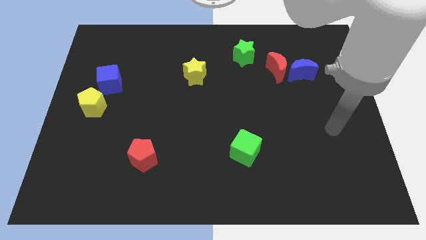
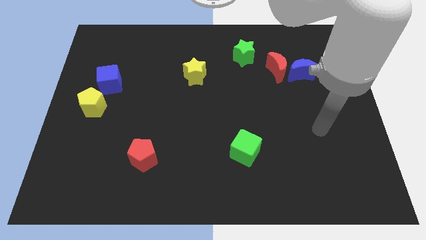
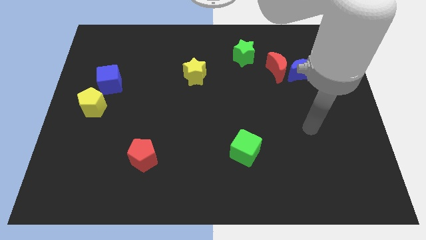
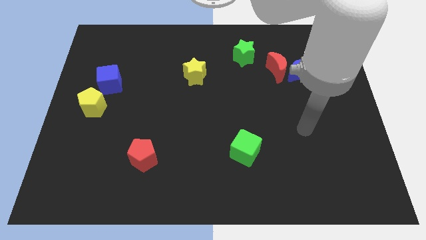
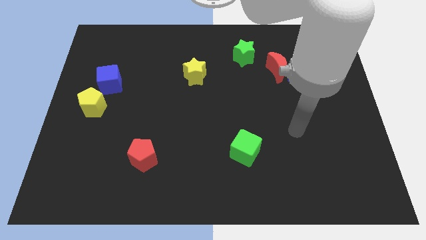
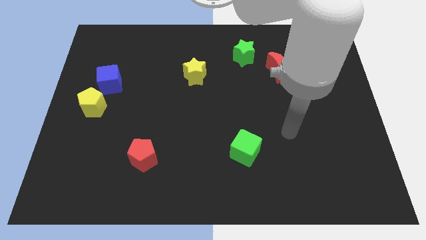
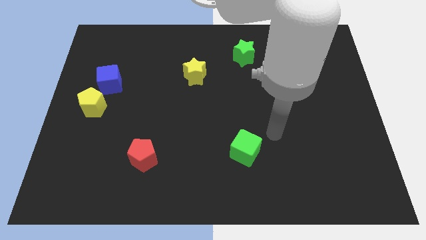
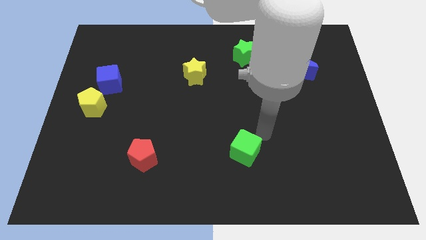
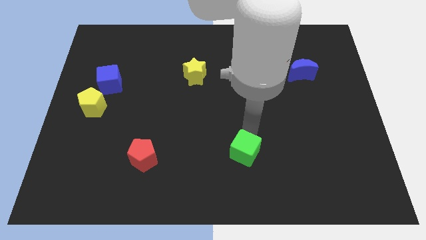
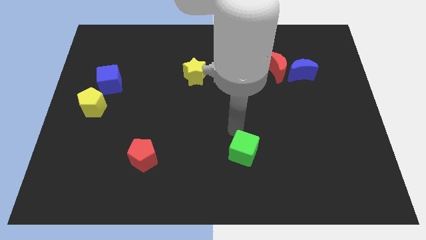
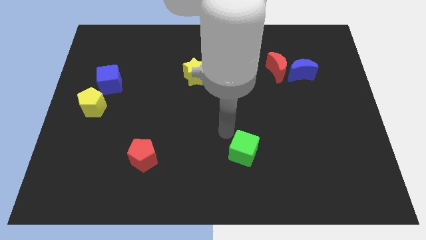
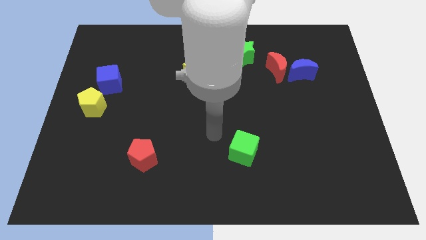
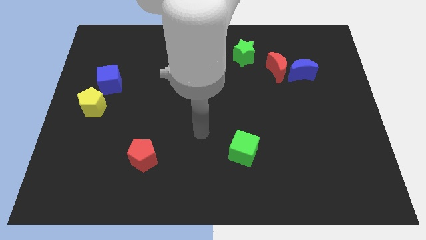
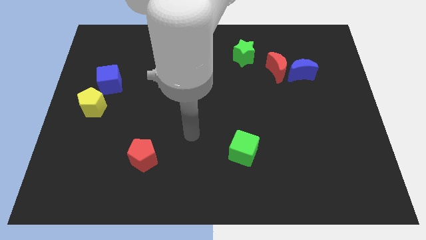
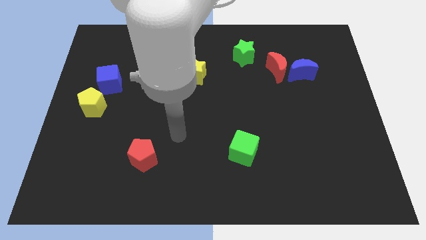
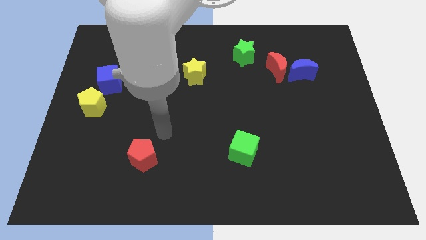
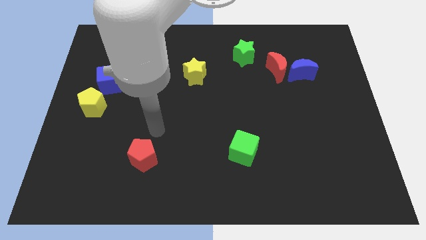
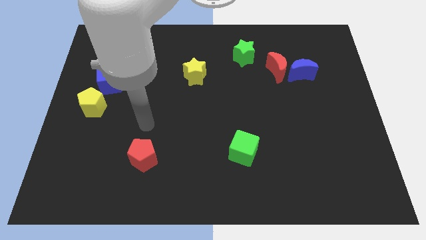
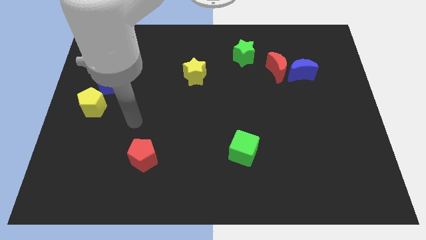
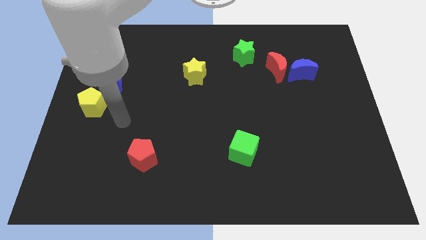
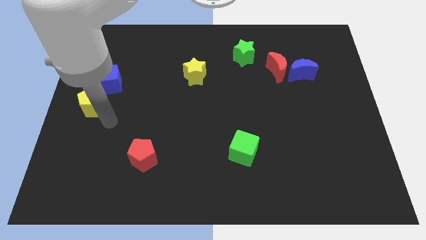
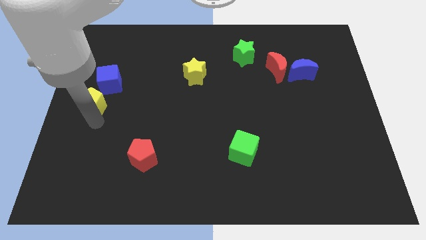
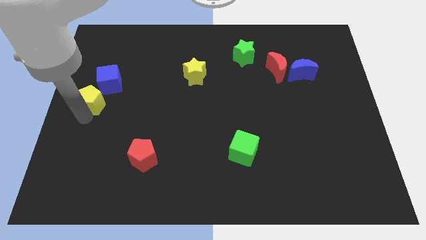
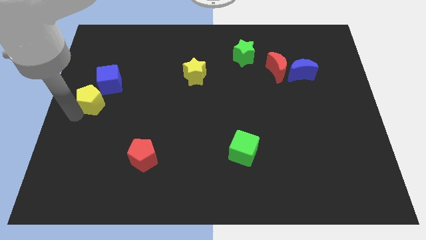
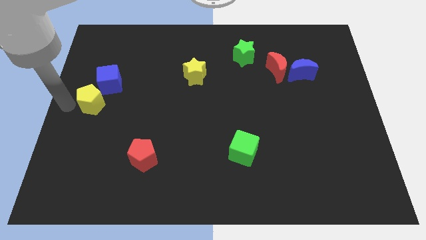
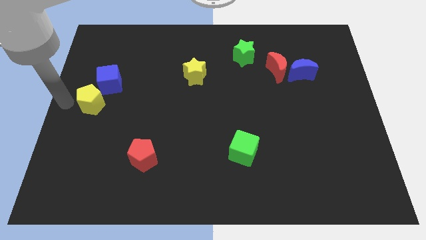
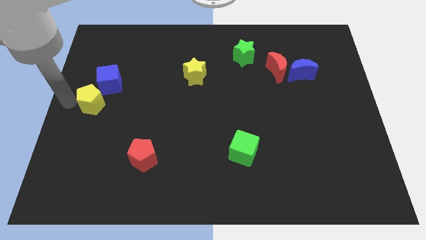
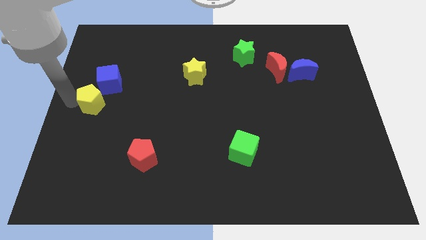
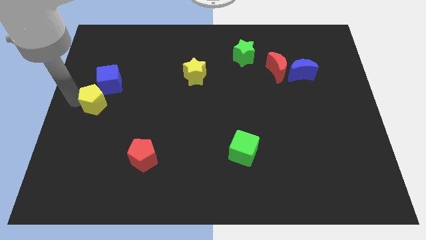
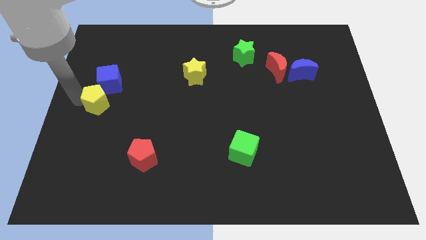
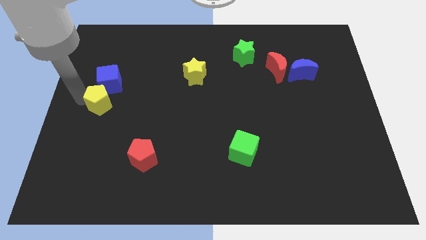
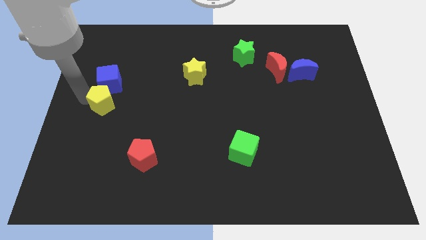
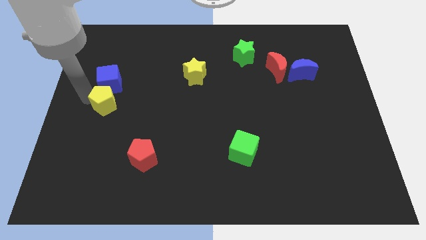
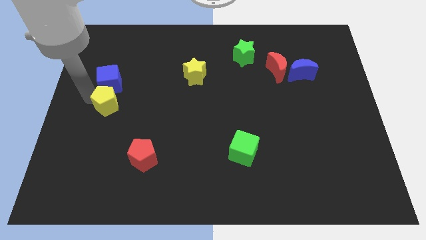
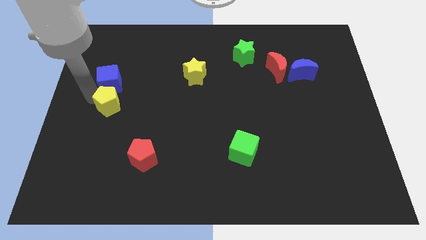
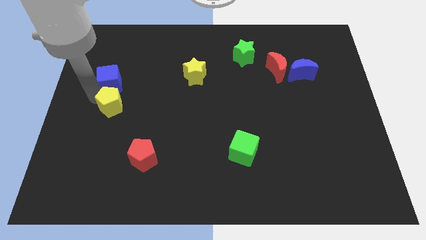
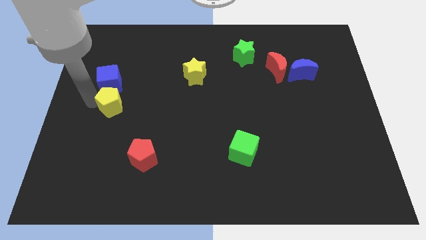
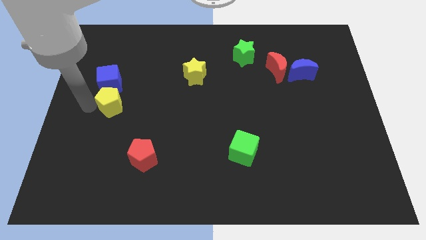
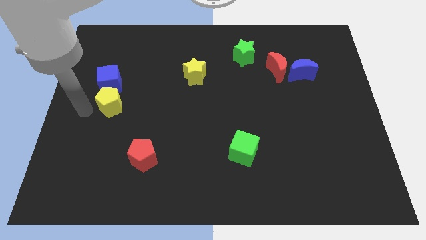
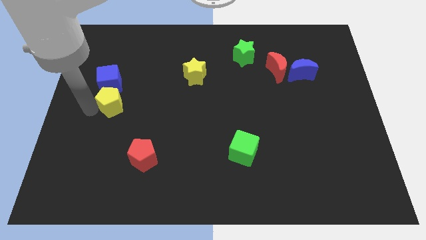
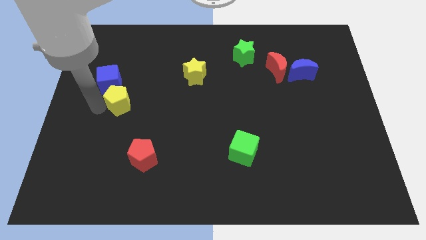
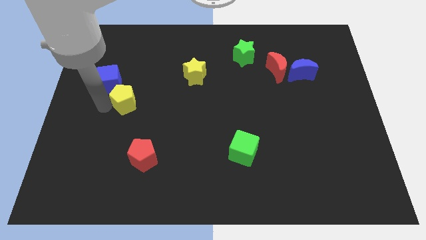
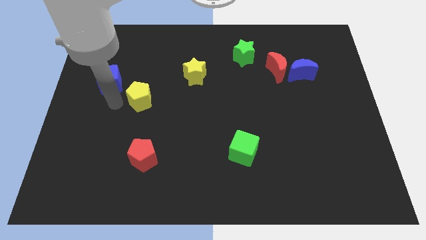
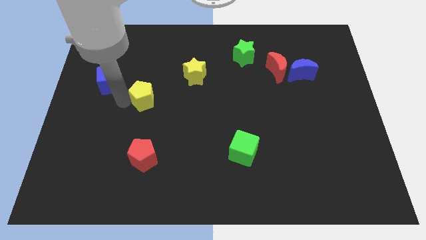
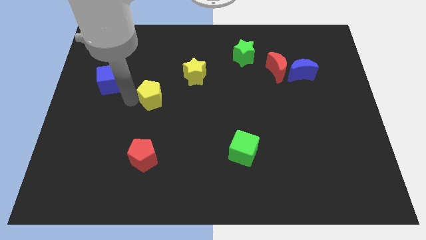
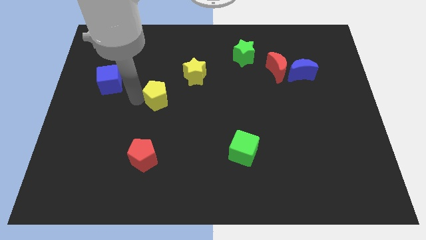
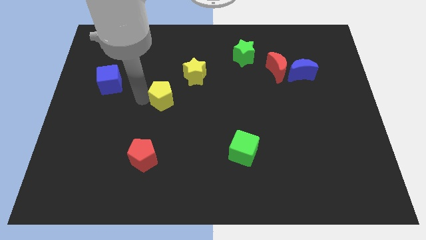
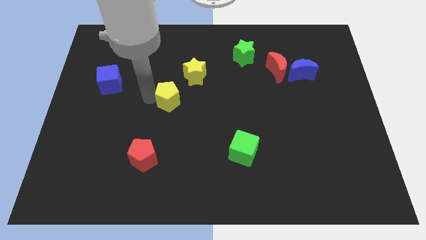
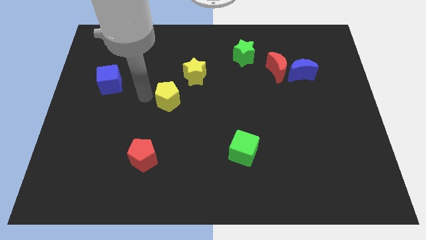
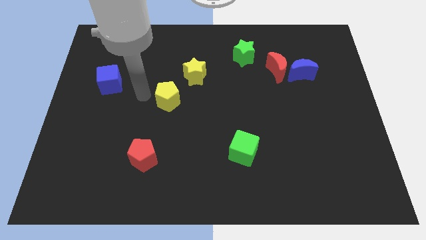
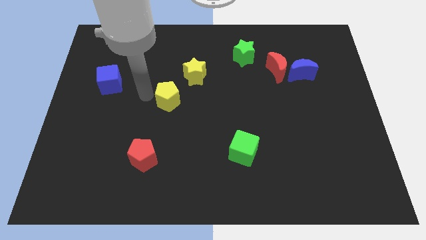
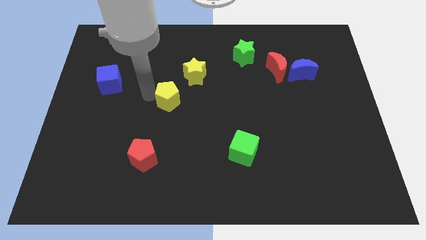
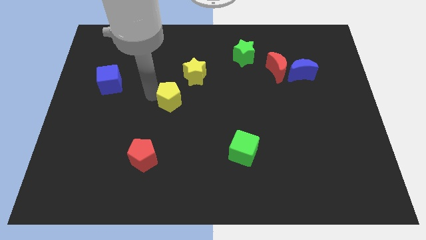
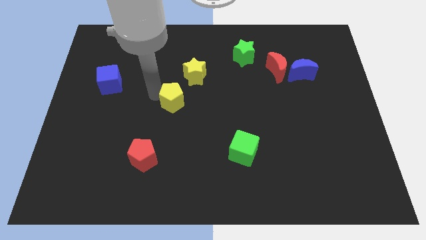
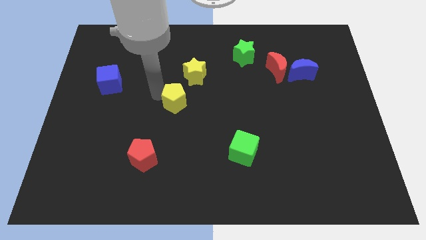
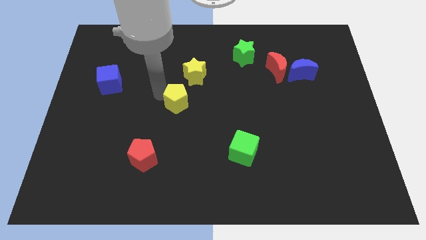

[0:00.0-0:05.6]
push the yellow pentagon to the right

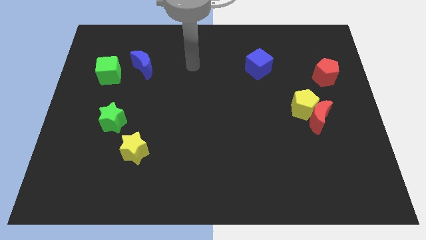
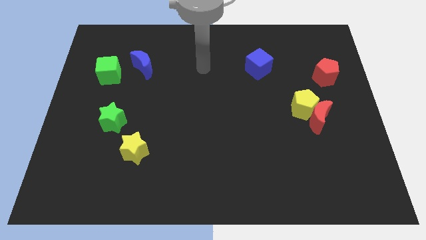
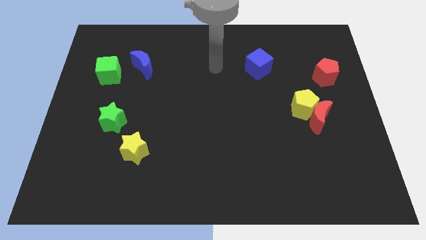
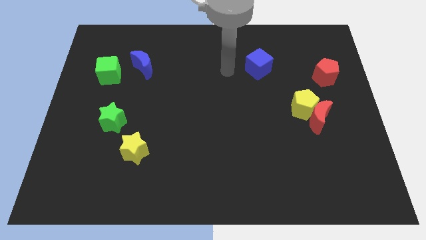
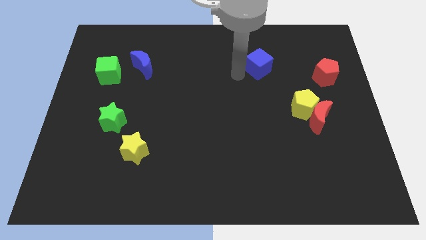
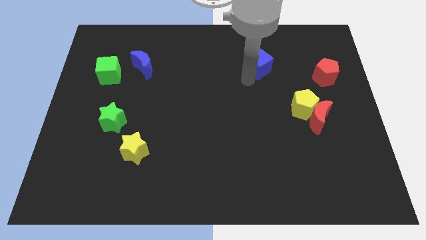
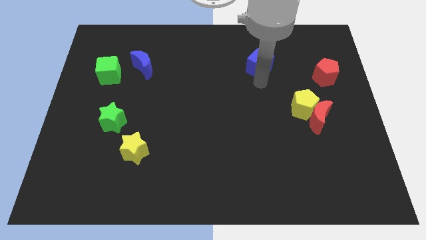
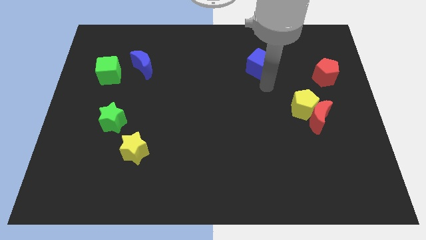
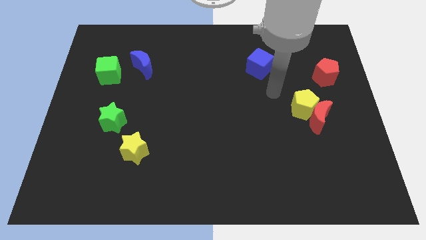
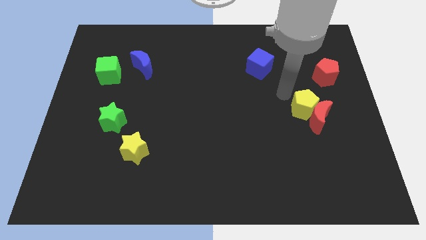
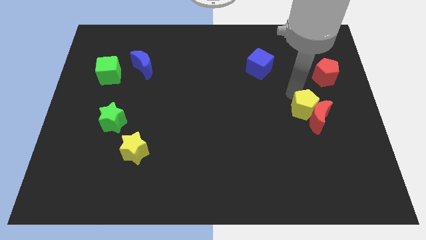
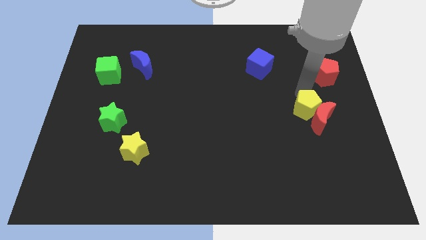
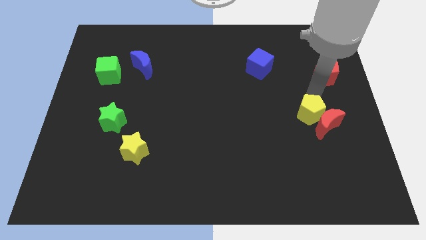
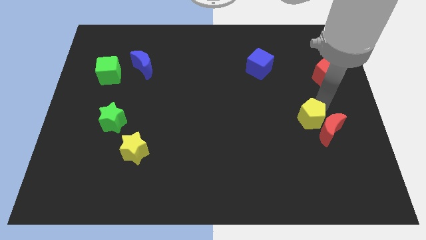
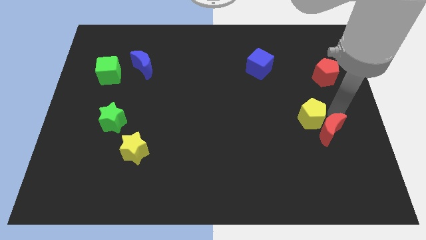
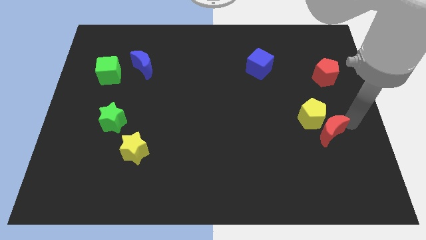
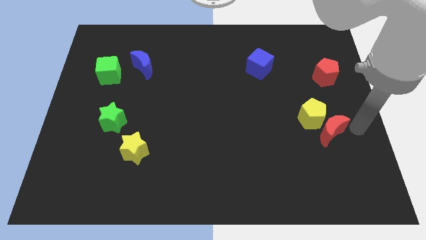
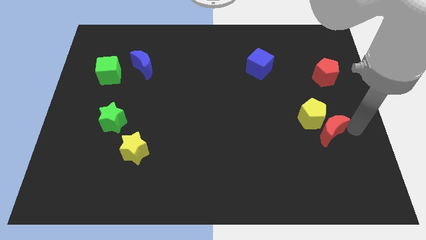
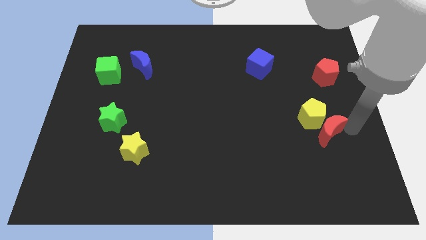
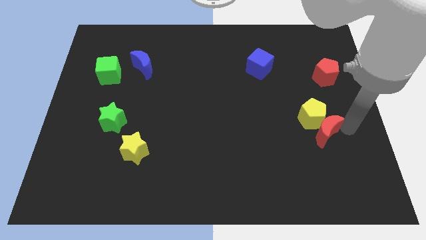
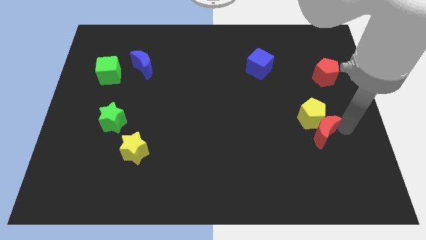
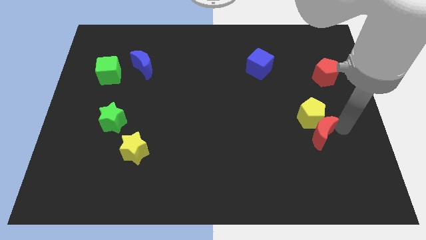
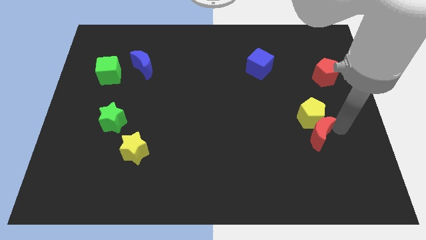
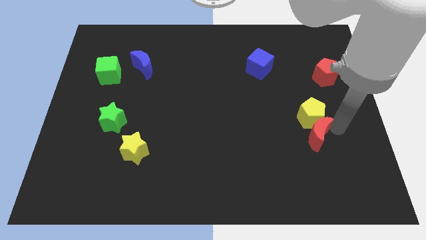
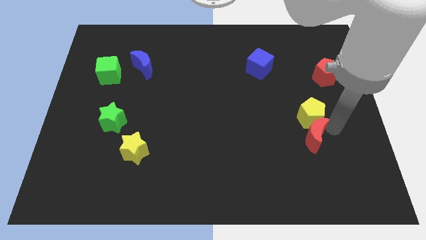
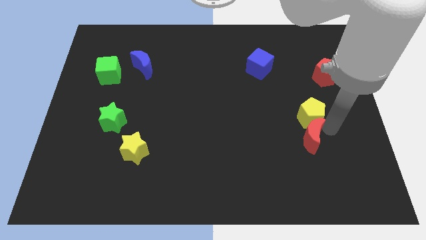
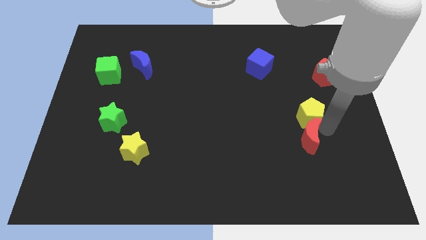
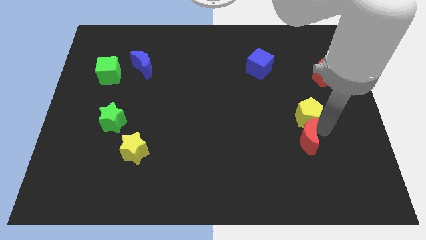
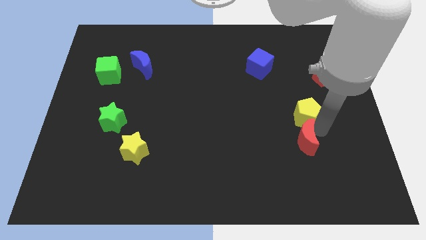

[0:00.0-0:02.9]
slide the red moon a little down and then left
